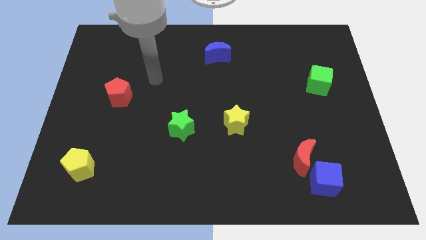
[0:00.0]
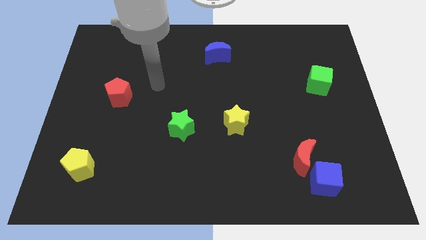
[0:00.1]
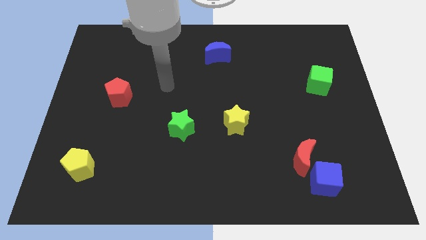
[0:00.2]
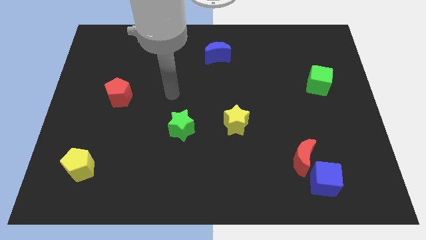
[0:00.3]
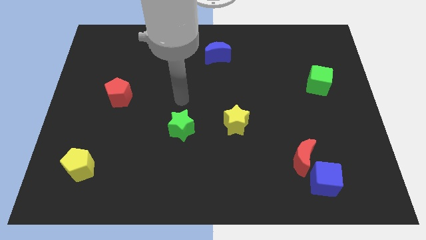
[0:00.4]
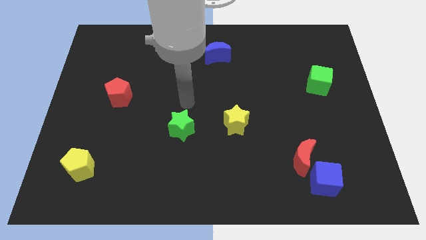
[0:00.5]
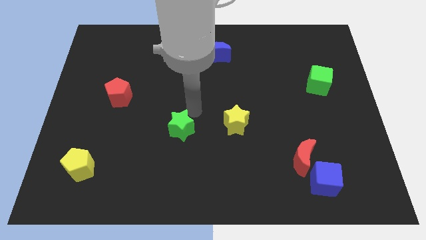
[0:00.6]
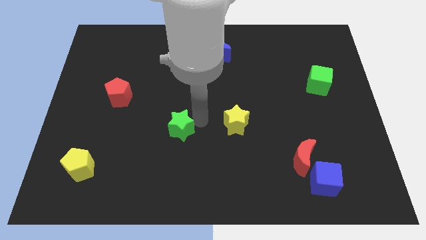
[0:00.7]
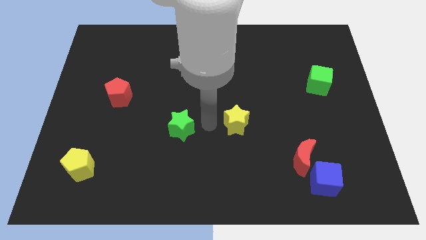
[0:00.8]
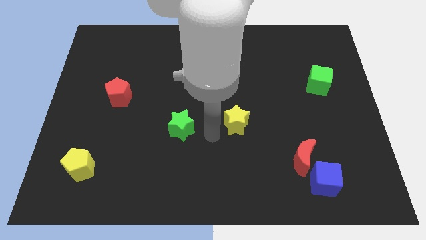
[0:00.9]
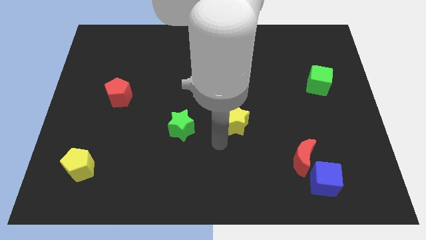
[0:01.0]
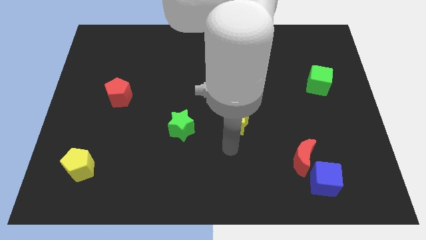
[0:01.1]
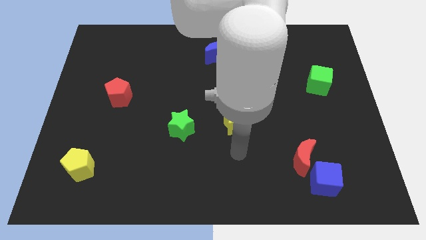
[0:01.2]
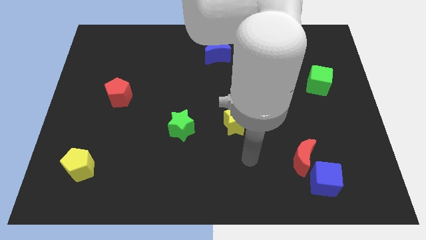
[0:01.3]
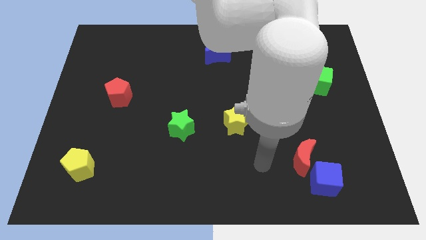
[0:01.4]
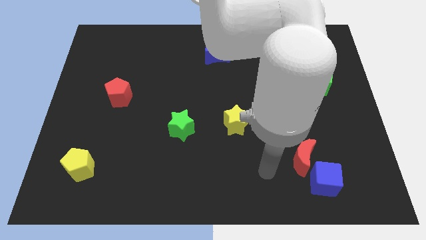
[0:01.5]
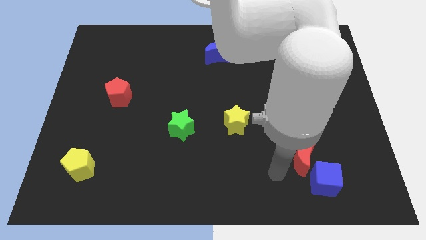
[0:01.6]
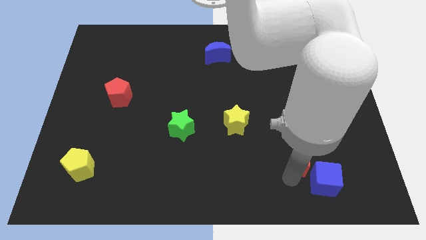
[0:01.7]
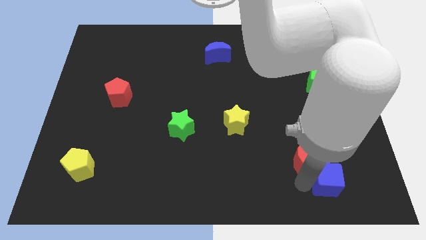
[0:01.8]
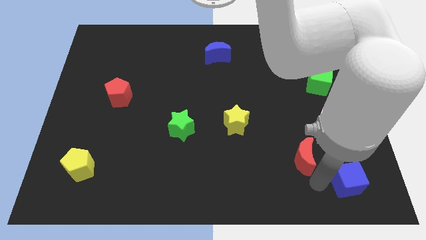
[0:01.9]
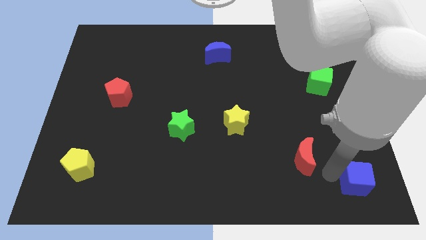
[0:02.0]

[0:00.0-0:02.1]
pull the red moon apart from the blue cube

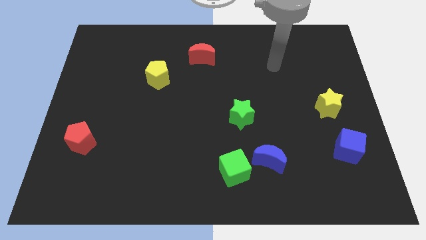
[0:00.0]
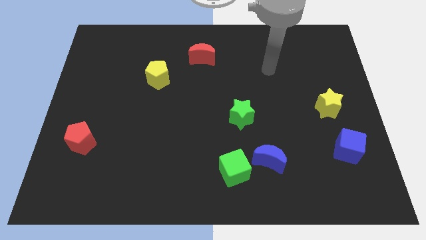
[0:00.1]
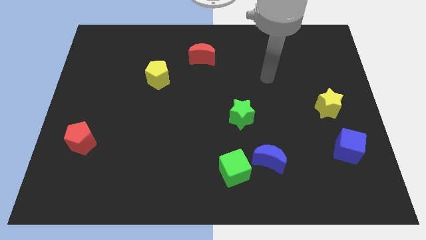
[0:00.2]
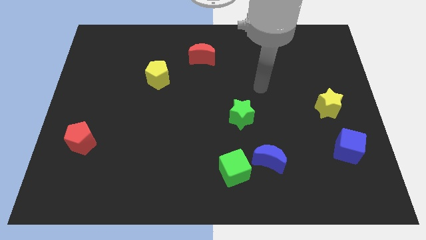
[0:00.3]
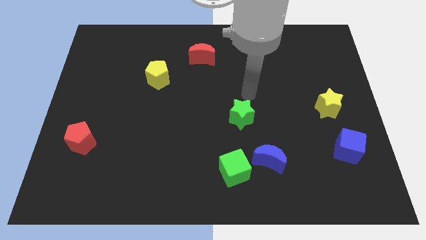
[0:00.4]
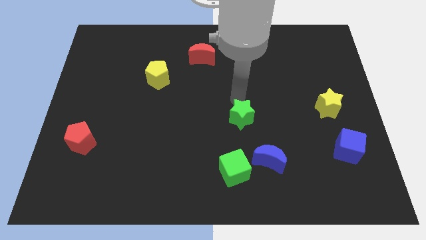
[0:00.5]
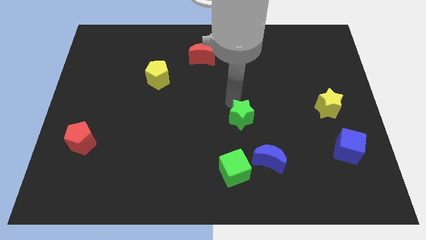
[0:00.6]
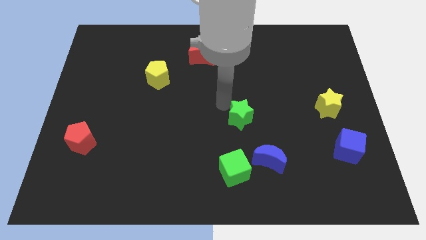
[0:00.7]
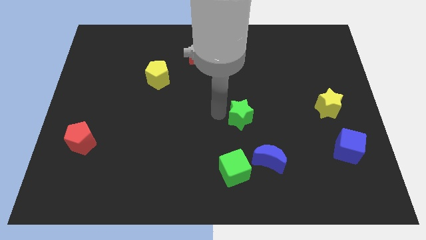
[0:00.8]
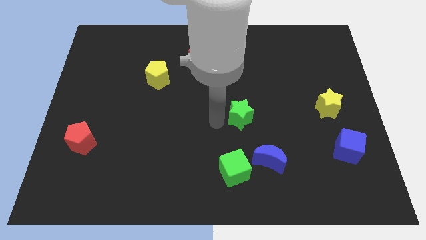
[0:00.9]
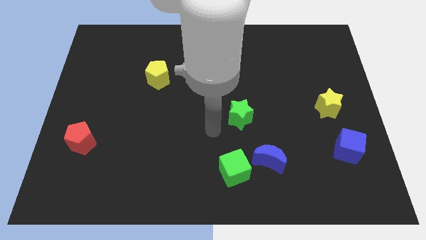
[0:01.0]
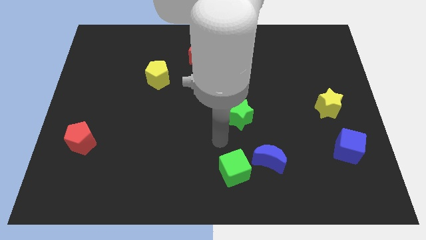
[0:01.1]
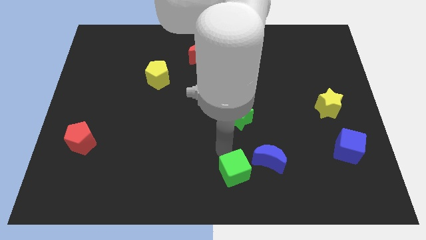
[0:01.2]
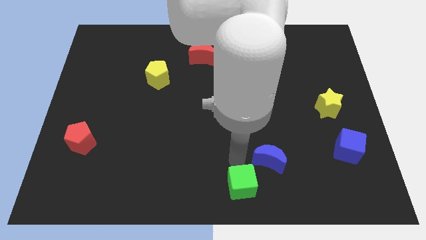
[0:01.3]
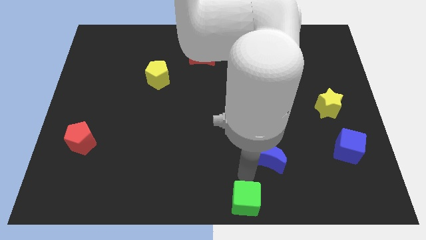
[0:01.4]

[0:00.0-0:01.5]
pull the blue moon apart from the green cube

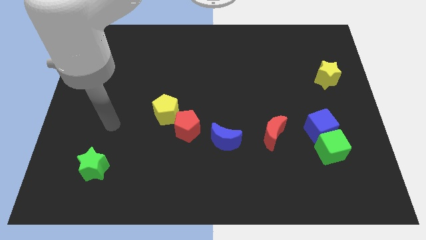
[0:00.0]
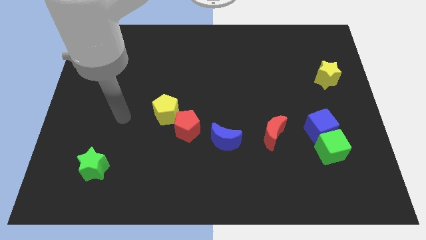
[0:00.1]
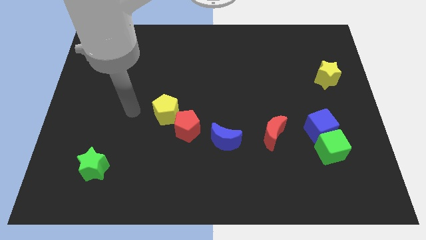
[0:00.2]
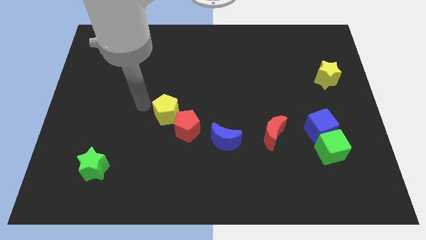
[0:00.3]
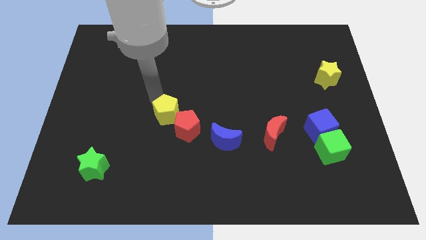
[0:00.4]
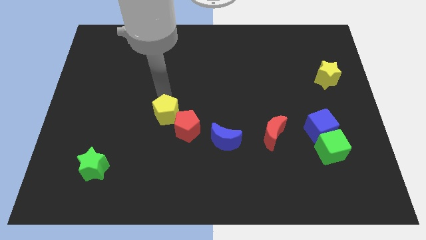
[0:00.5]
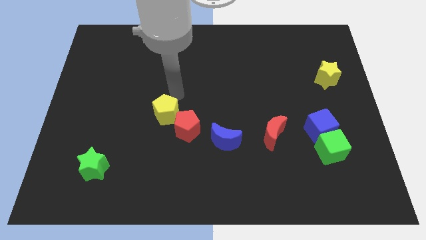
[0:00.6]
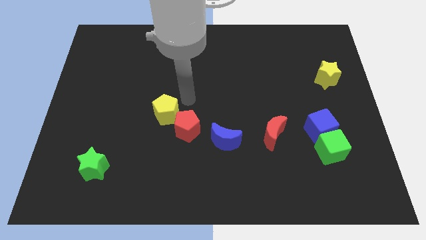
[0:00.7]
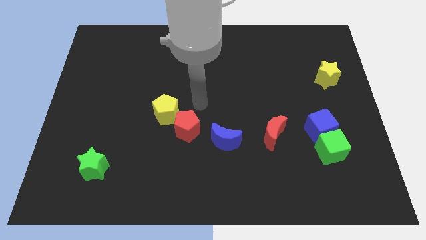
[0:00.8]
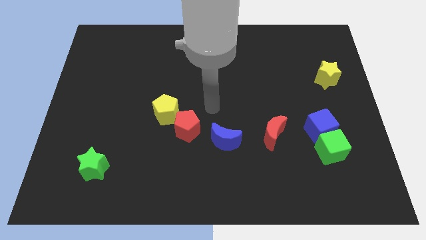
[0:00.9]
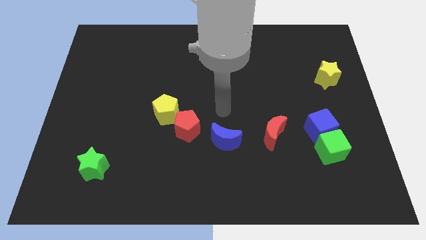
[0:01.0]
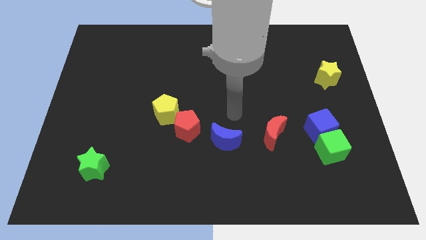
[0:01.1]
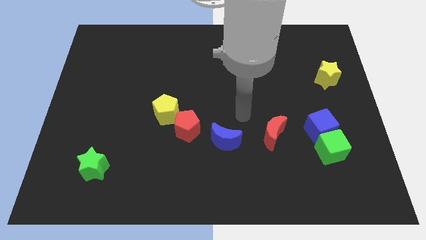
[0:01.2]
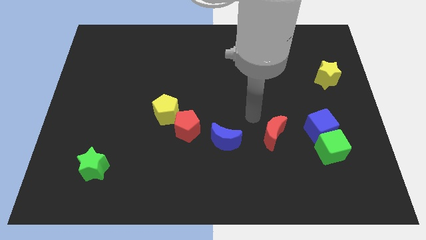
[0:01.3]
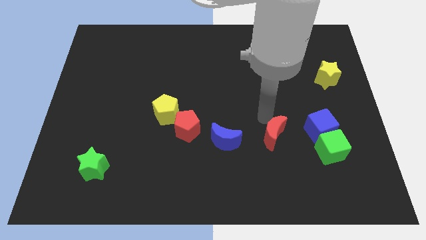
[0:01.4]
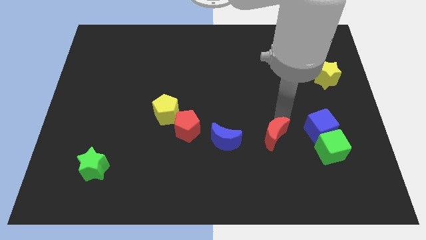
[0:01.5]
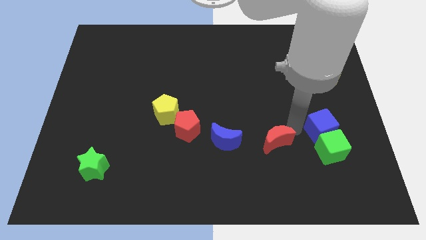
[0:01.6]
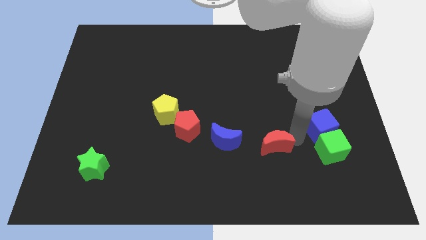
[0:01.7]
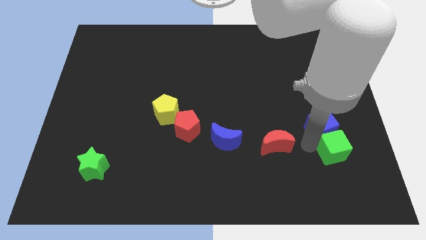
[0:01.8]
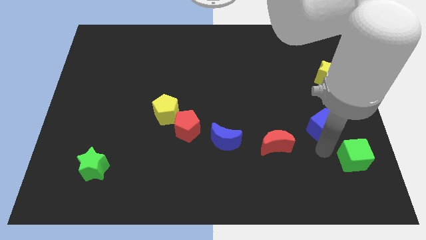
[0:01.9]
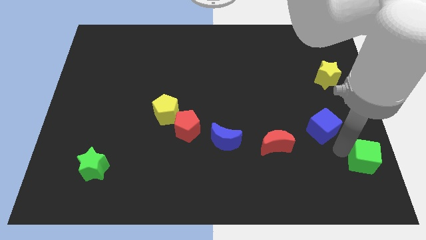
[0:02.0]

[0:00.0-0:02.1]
move the blue cube away from the green cube

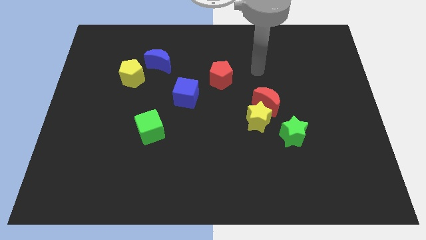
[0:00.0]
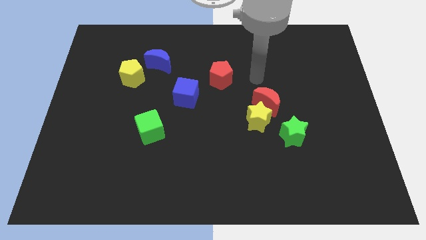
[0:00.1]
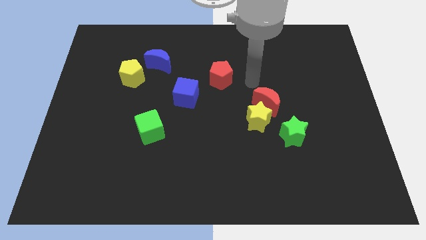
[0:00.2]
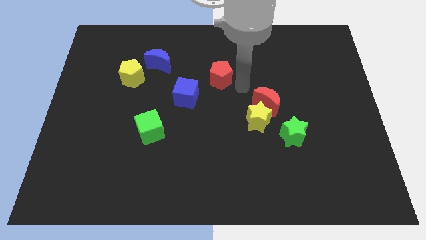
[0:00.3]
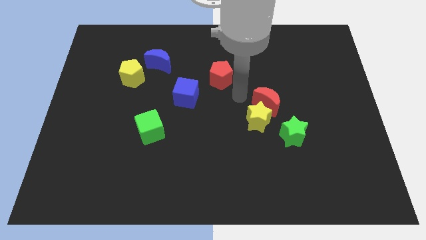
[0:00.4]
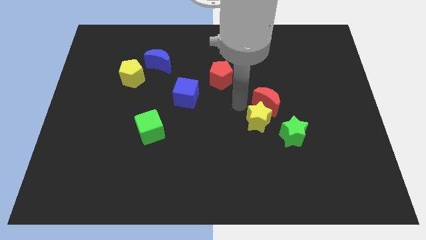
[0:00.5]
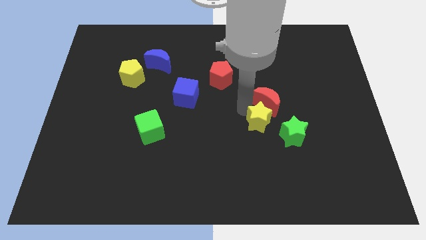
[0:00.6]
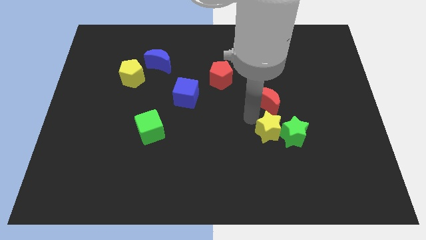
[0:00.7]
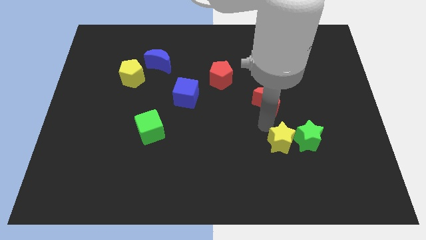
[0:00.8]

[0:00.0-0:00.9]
move the red moon away from the yellow star

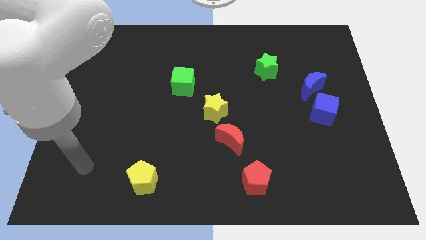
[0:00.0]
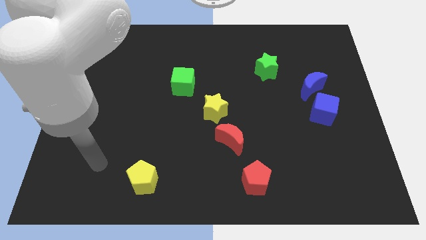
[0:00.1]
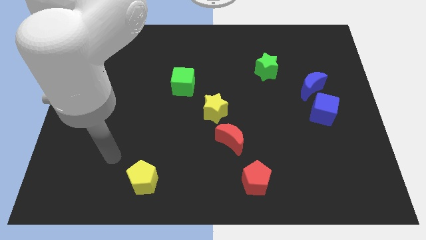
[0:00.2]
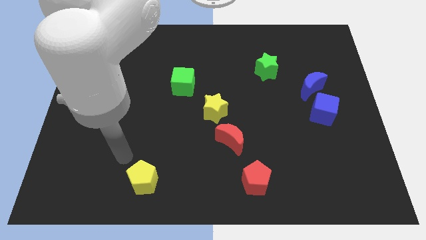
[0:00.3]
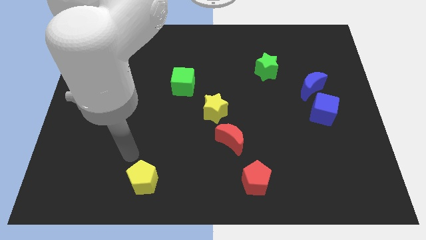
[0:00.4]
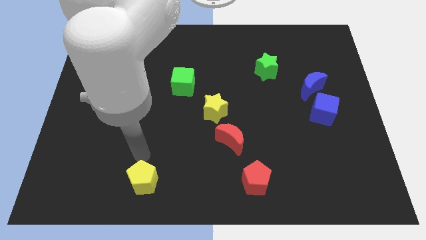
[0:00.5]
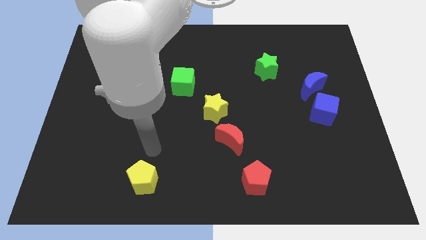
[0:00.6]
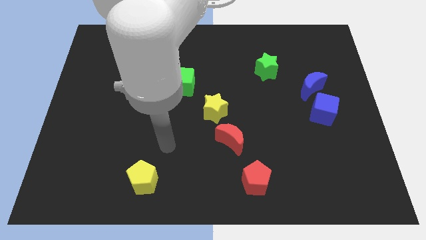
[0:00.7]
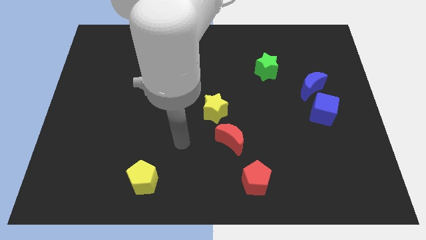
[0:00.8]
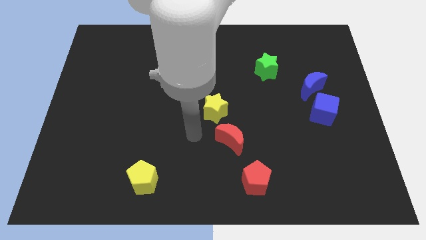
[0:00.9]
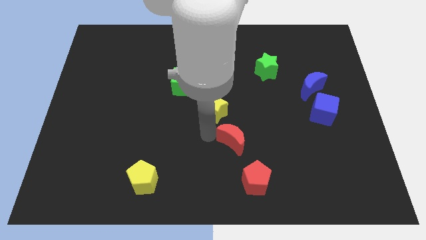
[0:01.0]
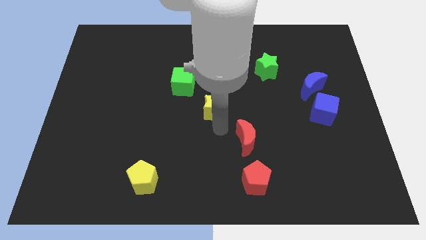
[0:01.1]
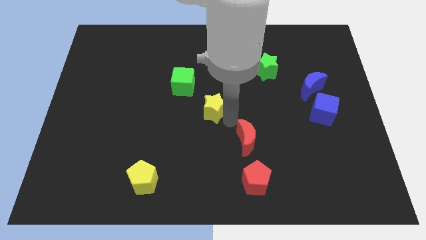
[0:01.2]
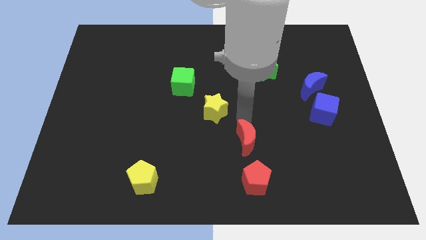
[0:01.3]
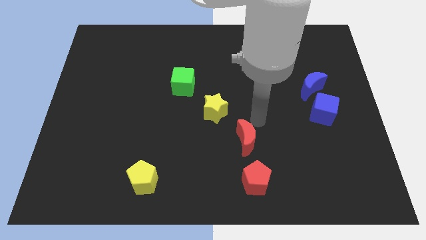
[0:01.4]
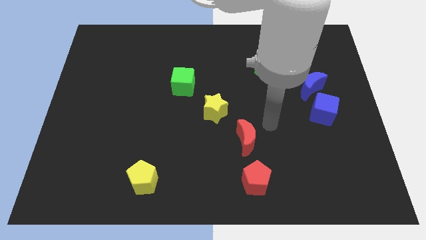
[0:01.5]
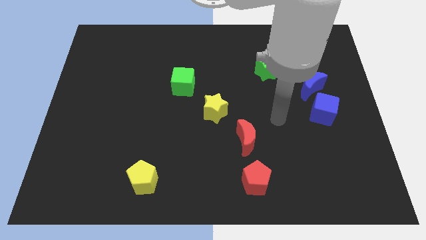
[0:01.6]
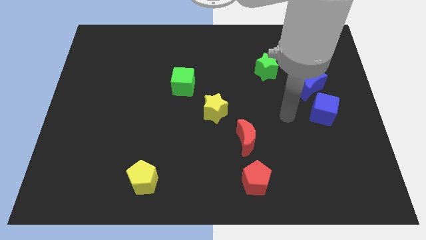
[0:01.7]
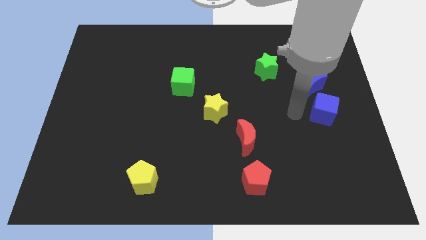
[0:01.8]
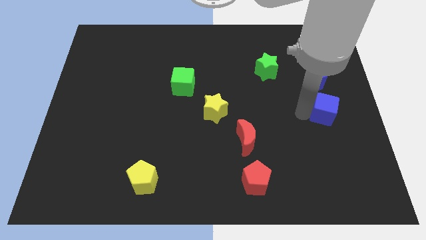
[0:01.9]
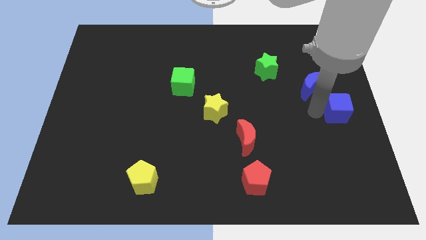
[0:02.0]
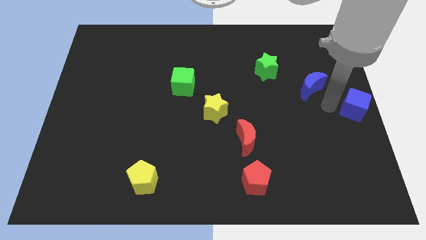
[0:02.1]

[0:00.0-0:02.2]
move the blue moon away from the blue cube

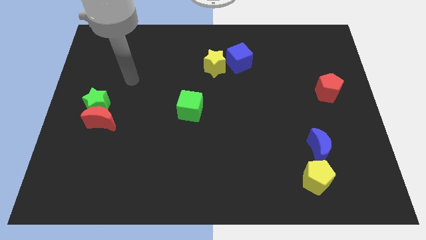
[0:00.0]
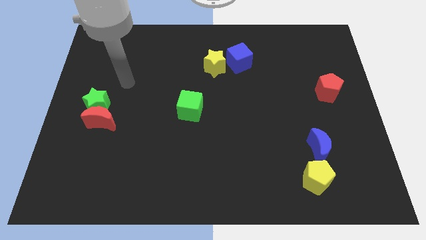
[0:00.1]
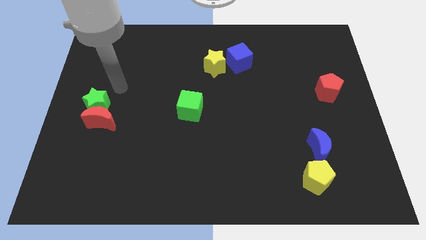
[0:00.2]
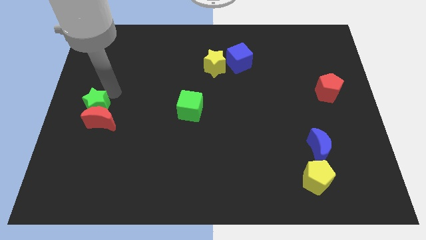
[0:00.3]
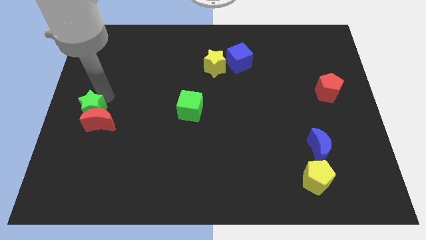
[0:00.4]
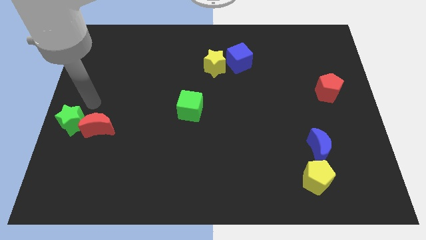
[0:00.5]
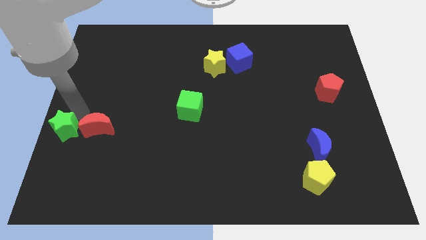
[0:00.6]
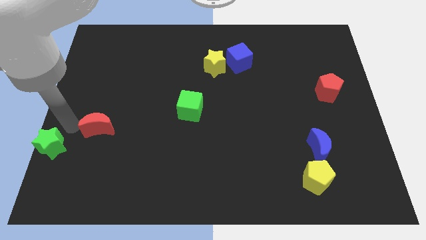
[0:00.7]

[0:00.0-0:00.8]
move the red moon away from the green star
